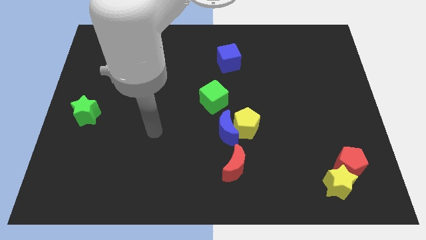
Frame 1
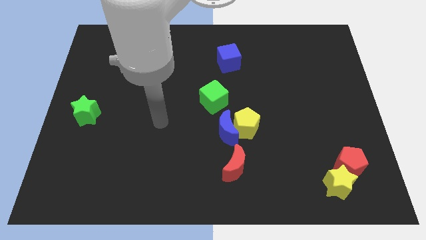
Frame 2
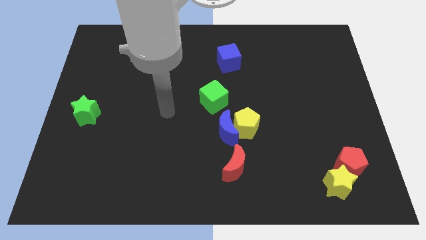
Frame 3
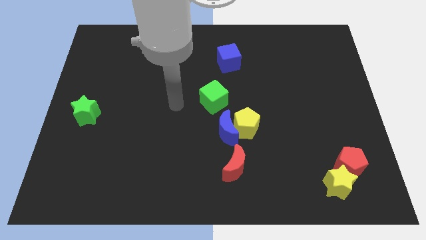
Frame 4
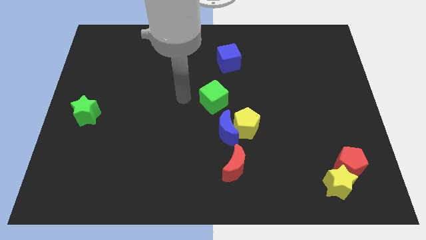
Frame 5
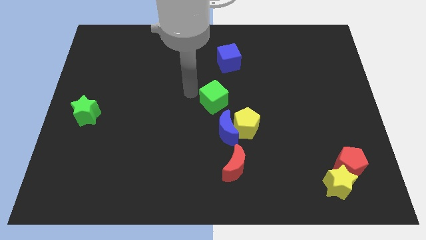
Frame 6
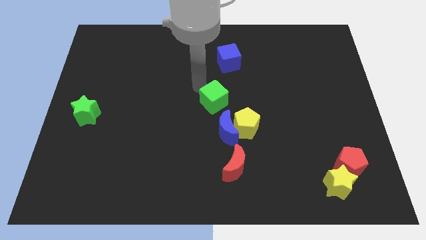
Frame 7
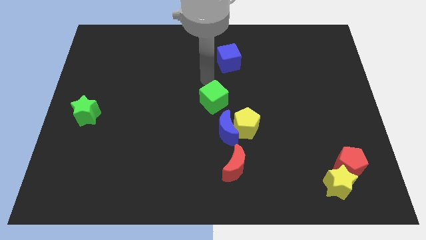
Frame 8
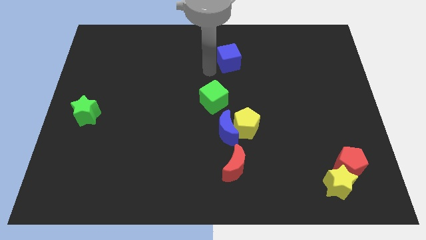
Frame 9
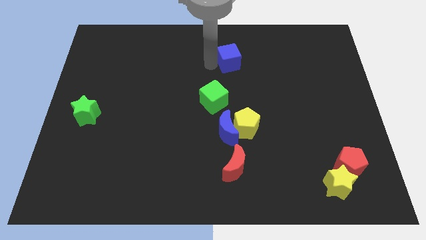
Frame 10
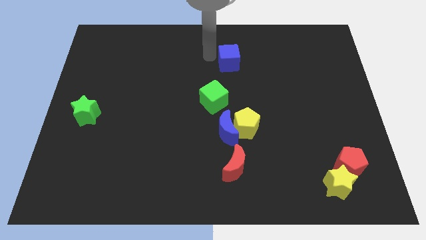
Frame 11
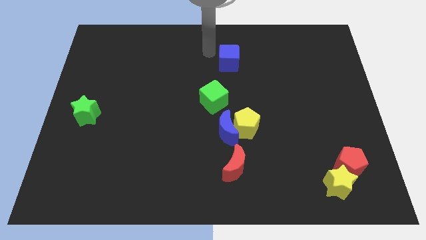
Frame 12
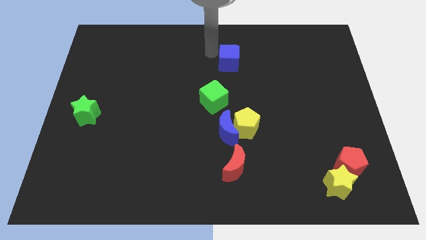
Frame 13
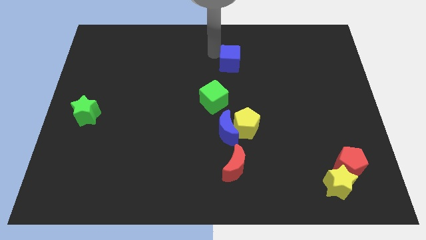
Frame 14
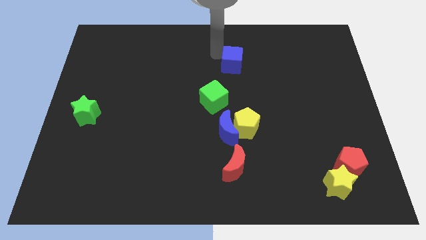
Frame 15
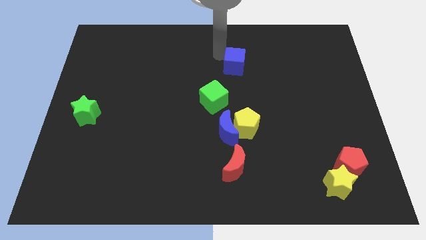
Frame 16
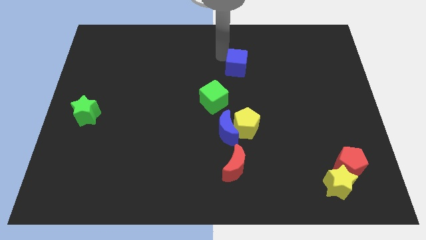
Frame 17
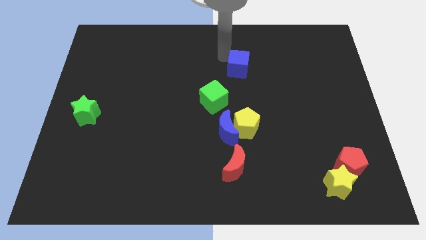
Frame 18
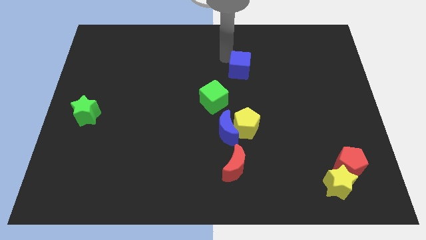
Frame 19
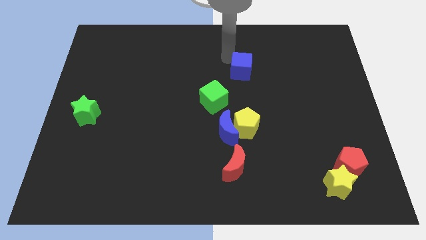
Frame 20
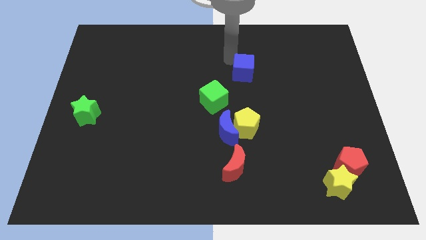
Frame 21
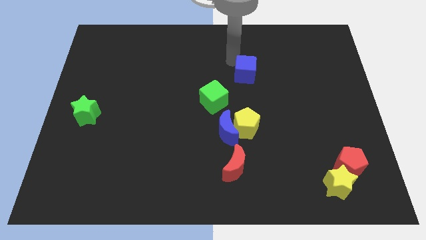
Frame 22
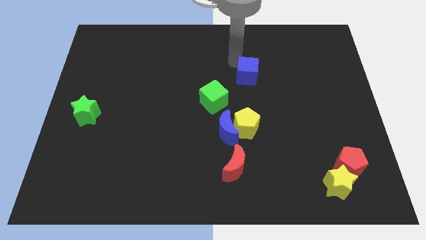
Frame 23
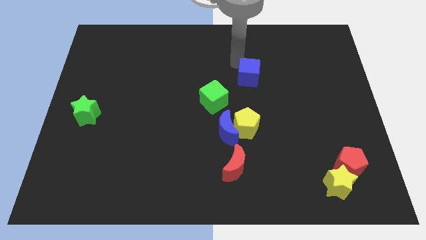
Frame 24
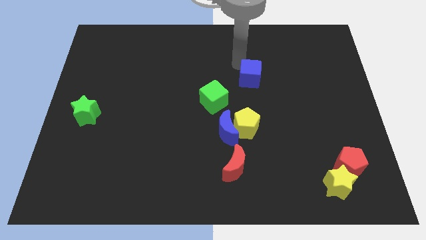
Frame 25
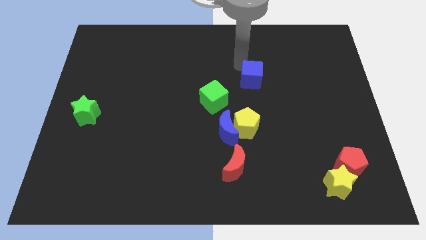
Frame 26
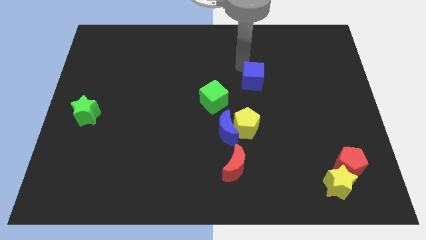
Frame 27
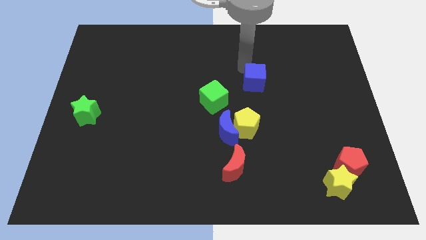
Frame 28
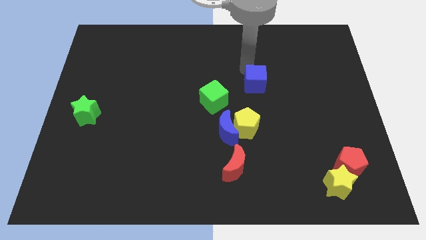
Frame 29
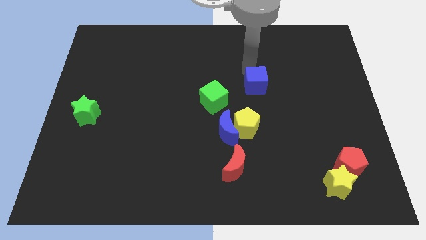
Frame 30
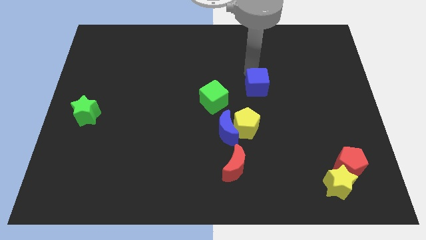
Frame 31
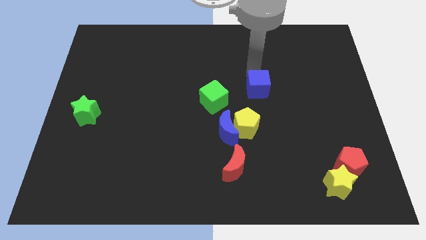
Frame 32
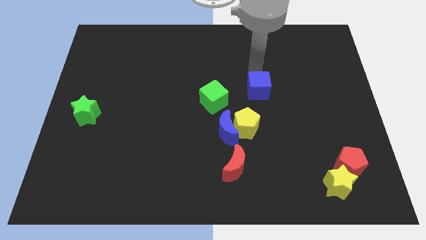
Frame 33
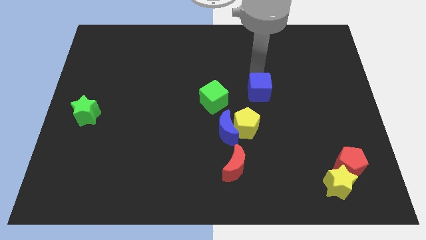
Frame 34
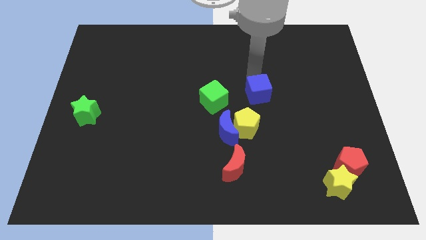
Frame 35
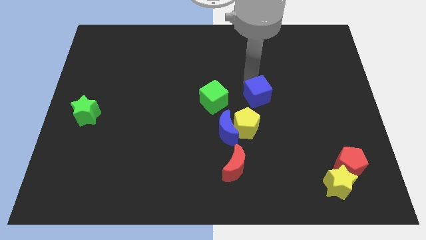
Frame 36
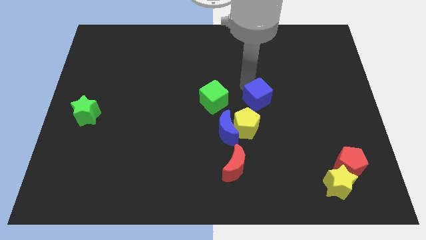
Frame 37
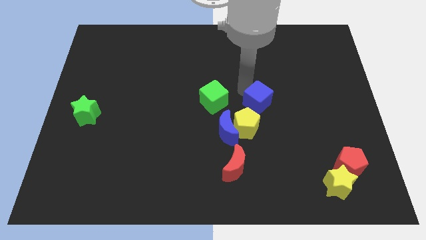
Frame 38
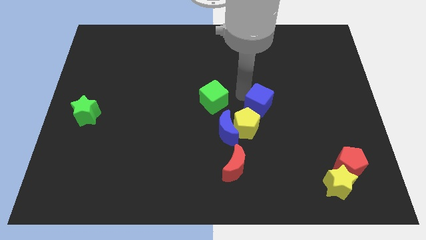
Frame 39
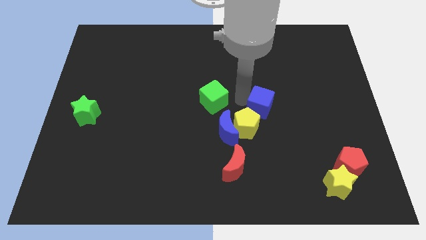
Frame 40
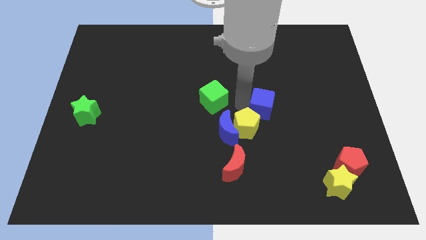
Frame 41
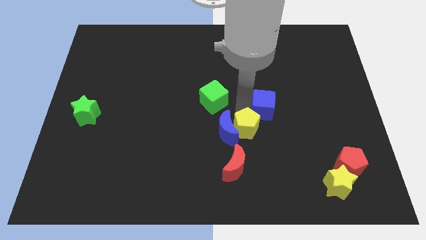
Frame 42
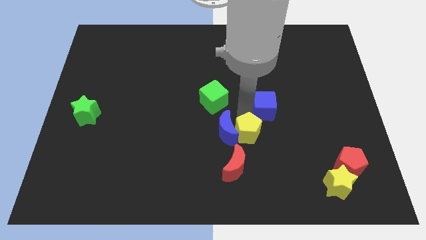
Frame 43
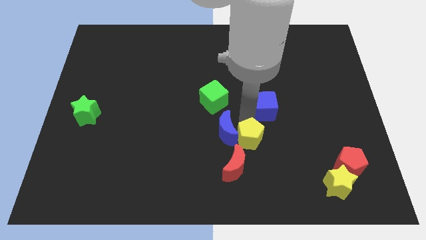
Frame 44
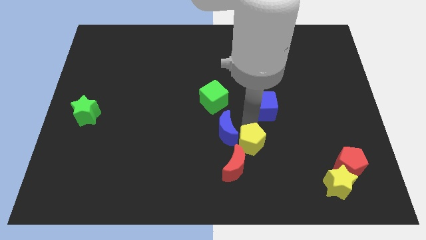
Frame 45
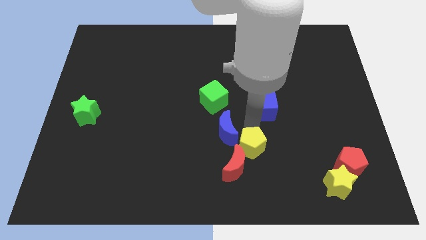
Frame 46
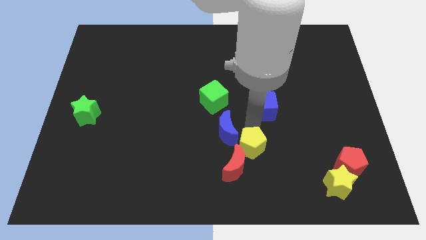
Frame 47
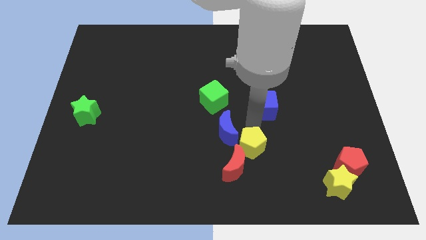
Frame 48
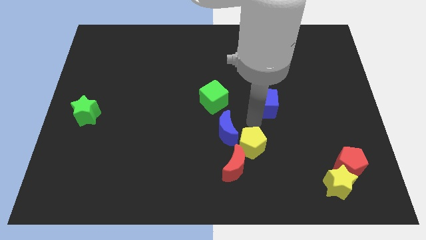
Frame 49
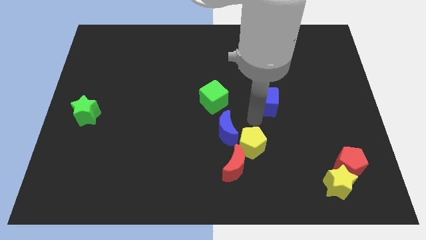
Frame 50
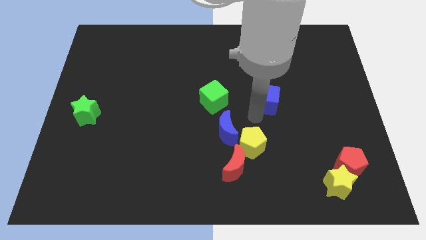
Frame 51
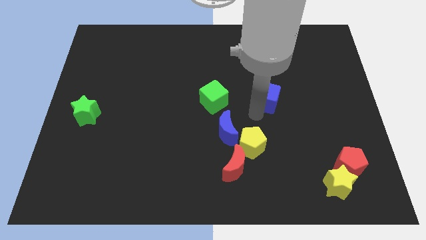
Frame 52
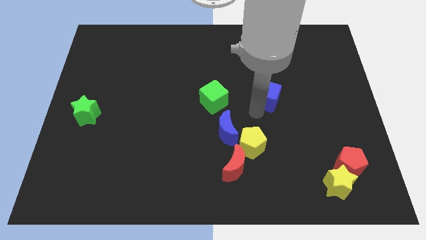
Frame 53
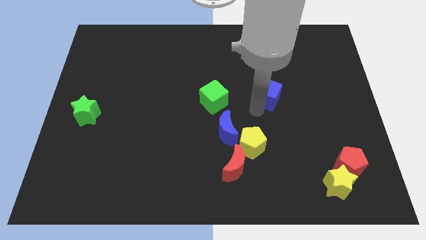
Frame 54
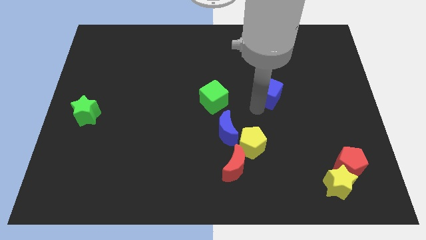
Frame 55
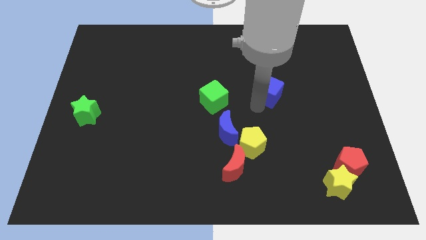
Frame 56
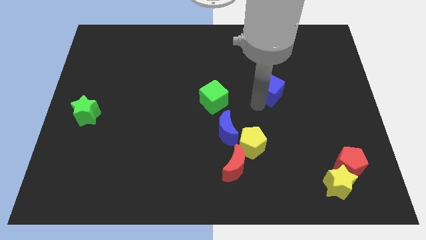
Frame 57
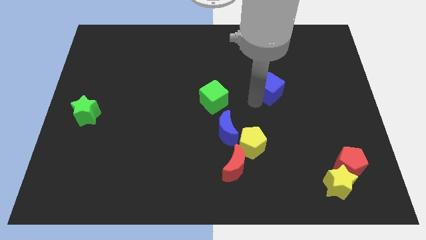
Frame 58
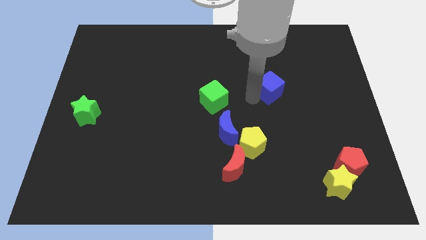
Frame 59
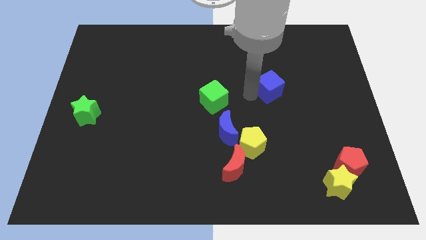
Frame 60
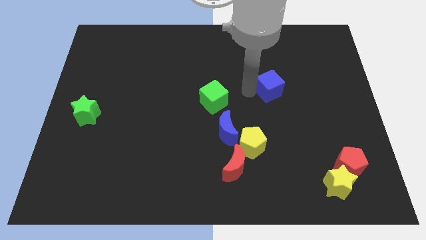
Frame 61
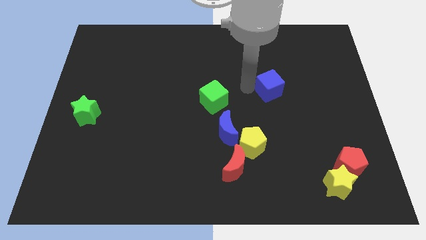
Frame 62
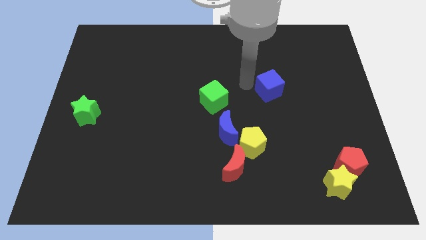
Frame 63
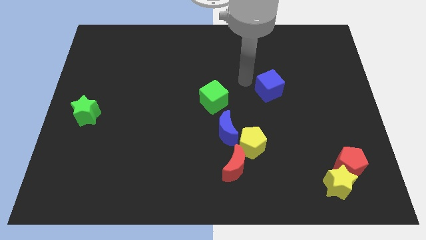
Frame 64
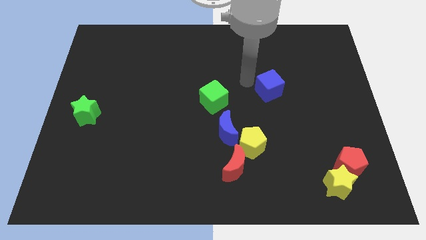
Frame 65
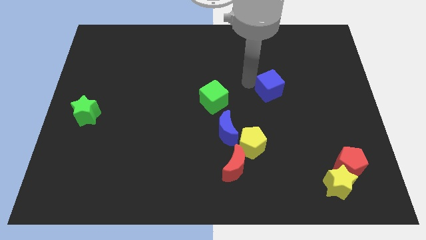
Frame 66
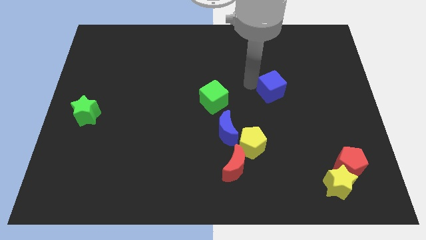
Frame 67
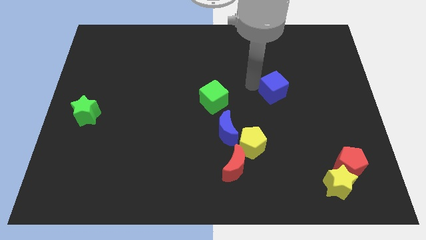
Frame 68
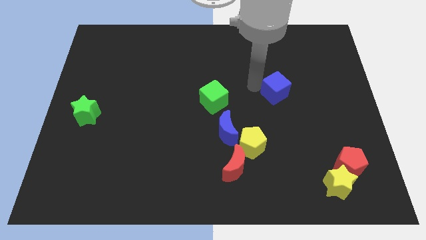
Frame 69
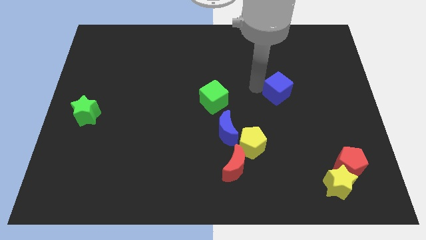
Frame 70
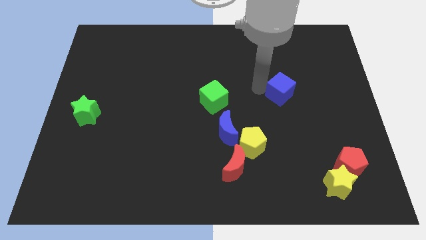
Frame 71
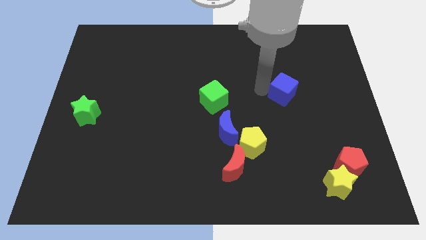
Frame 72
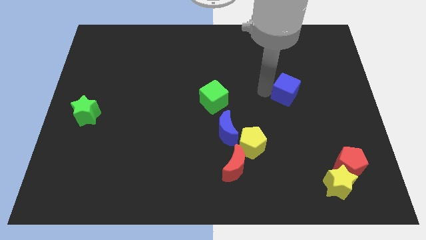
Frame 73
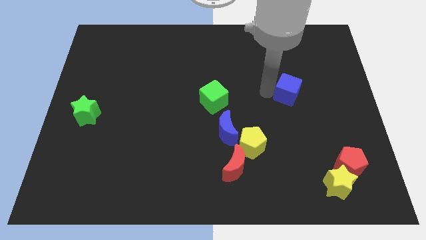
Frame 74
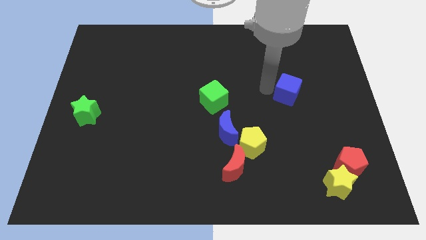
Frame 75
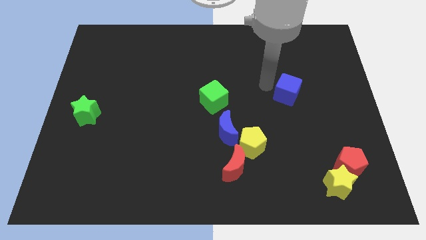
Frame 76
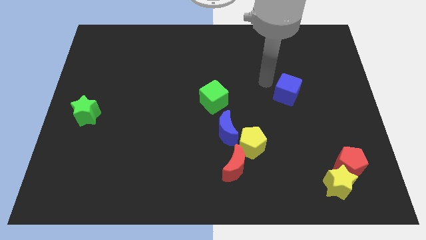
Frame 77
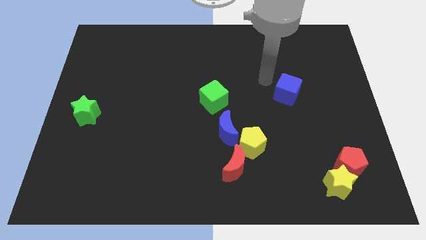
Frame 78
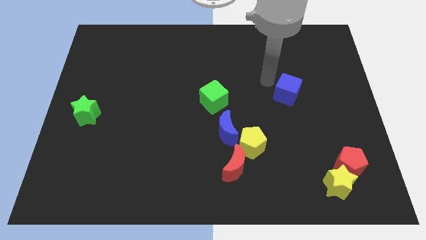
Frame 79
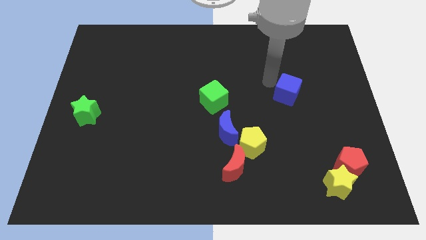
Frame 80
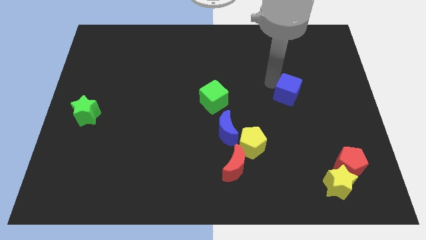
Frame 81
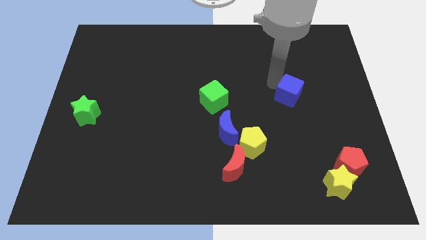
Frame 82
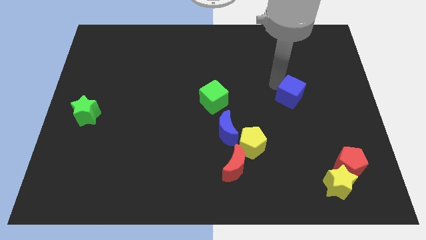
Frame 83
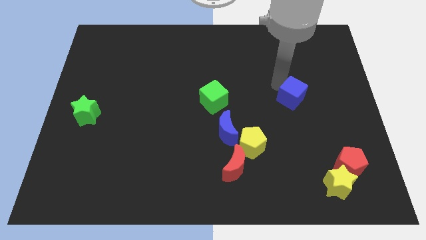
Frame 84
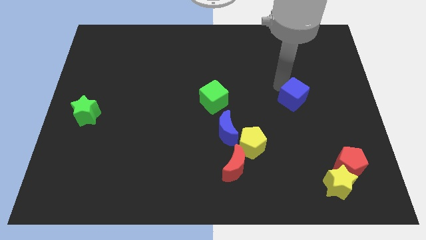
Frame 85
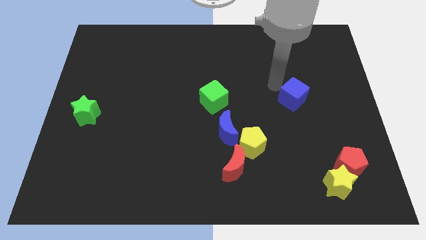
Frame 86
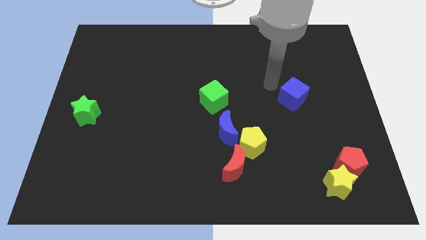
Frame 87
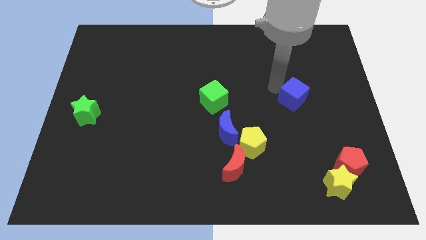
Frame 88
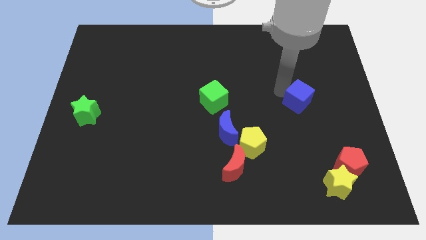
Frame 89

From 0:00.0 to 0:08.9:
move the blue cube down and then right
